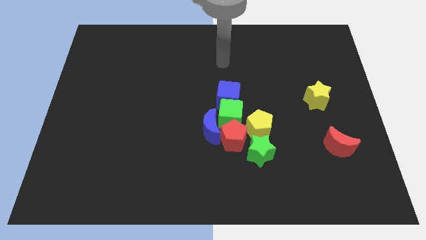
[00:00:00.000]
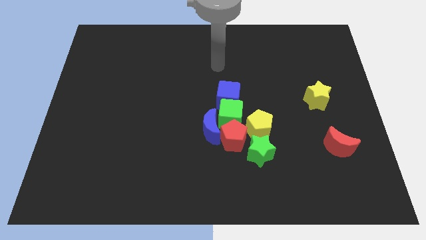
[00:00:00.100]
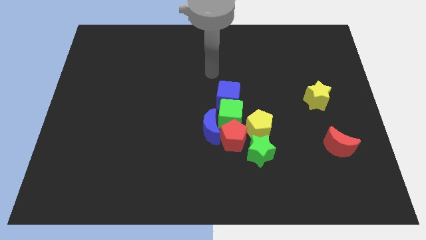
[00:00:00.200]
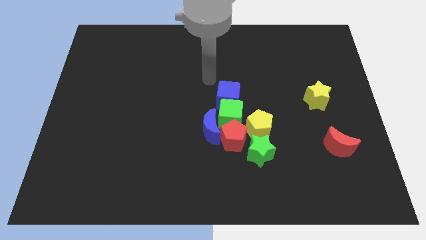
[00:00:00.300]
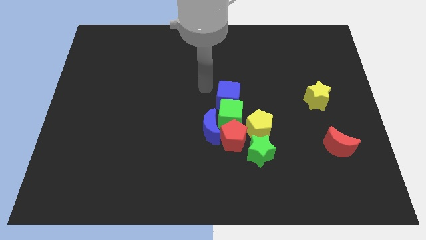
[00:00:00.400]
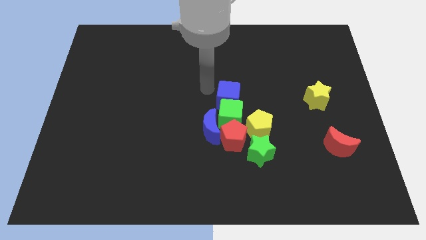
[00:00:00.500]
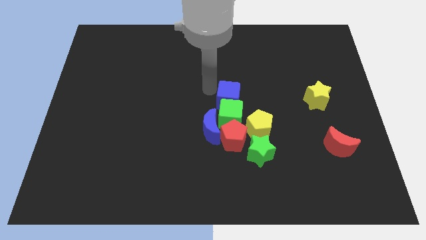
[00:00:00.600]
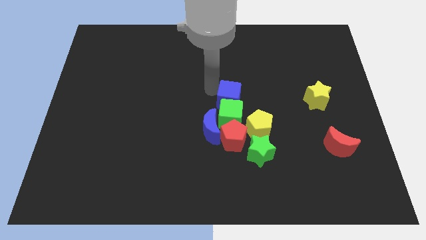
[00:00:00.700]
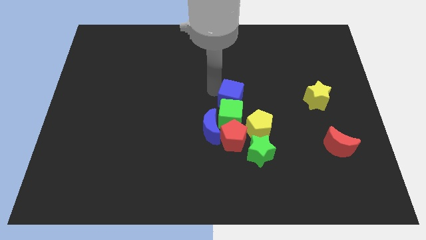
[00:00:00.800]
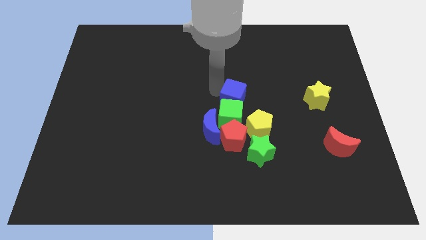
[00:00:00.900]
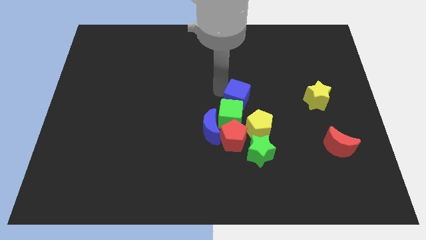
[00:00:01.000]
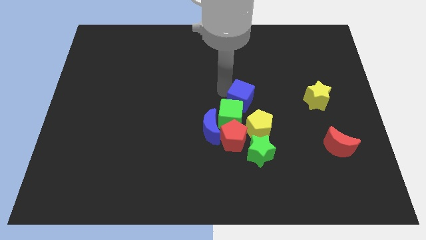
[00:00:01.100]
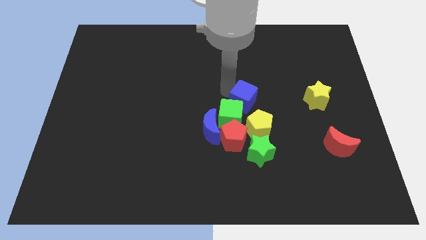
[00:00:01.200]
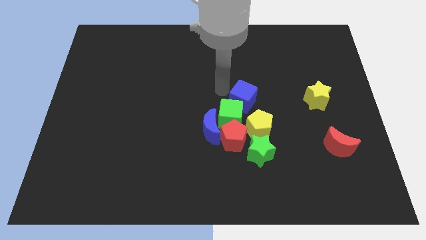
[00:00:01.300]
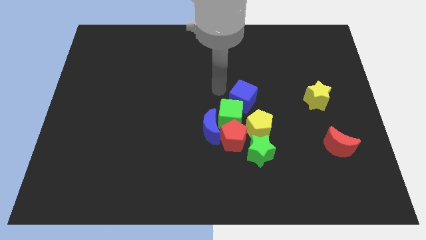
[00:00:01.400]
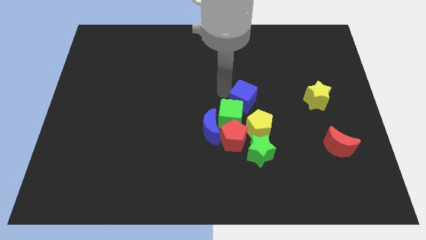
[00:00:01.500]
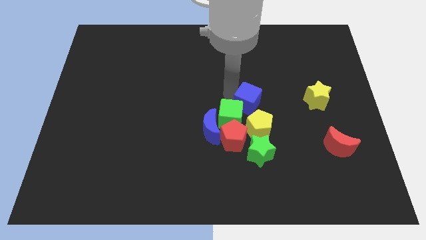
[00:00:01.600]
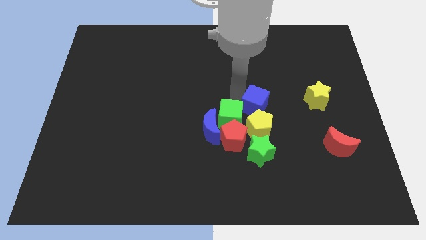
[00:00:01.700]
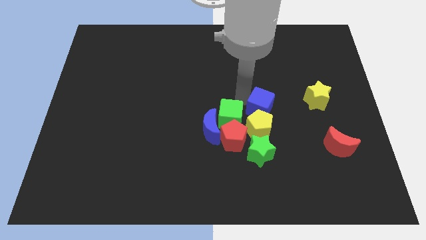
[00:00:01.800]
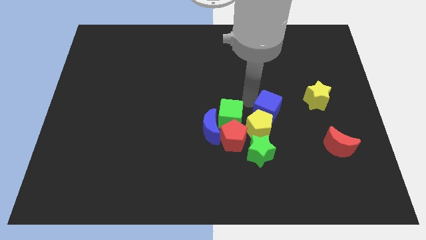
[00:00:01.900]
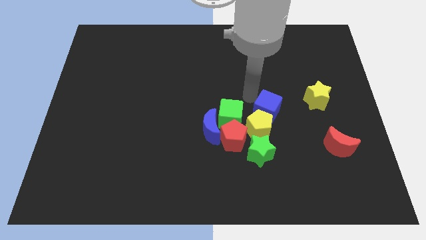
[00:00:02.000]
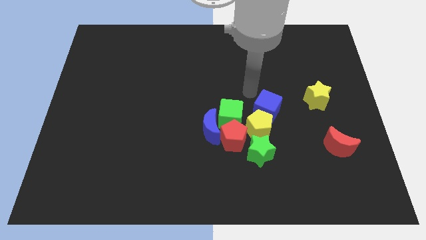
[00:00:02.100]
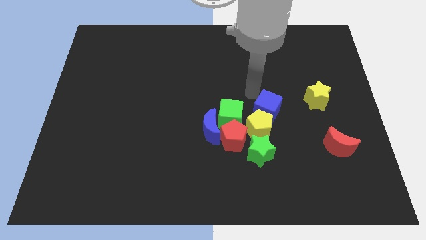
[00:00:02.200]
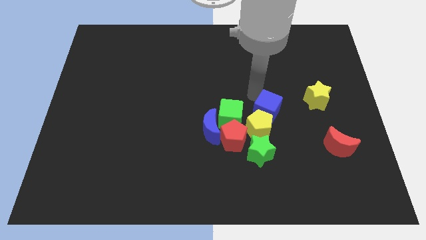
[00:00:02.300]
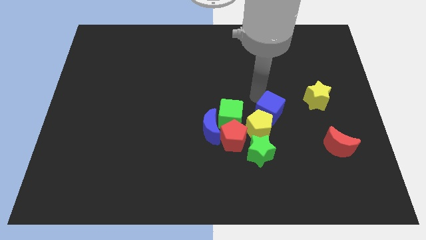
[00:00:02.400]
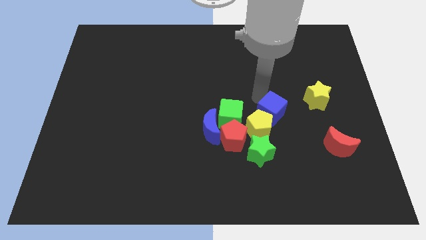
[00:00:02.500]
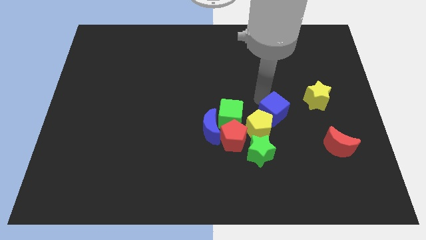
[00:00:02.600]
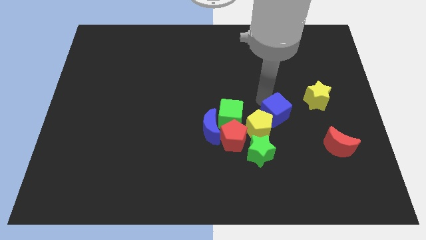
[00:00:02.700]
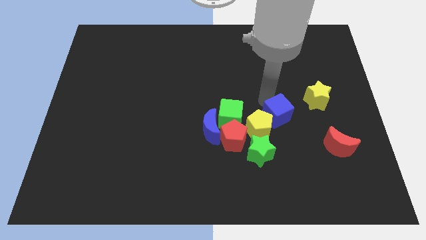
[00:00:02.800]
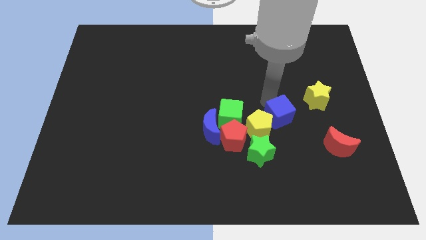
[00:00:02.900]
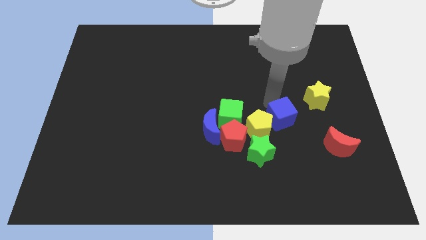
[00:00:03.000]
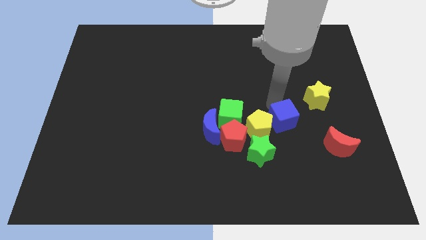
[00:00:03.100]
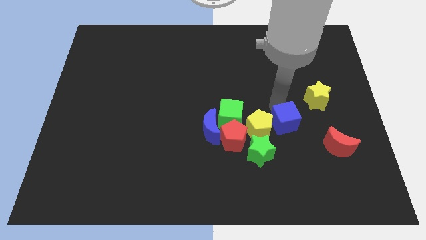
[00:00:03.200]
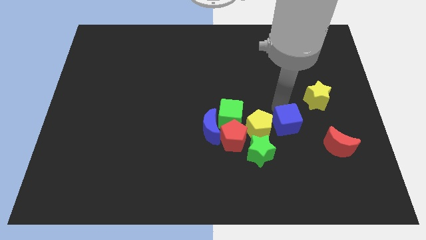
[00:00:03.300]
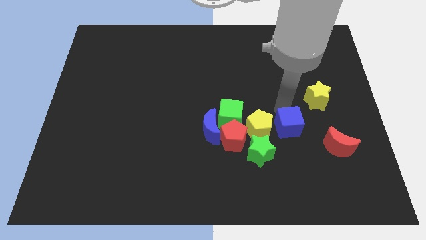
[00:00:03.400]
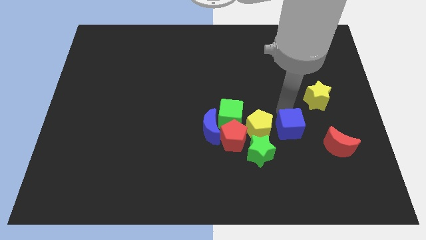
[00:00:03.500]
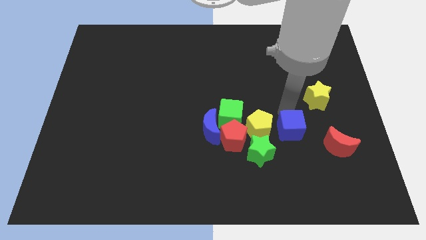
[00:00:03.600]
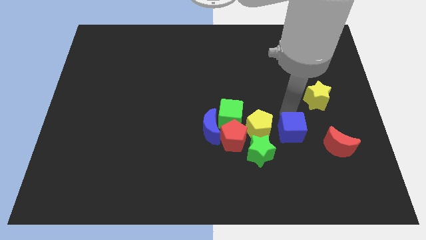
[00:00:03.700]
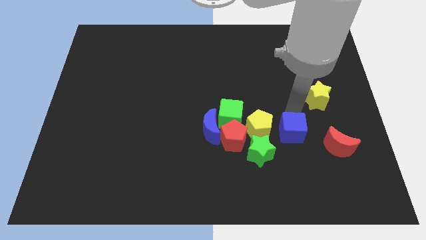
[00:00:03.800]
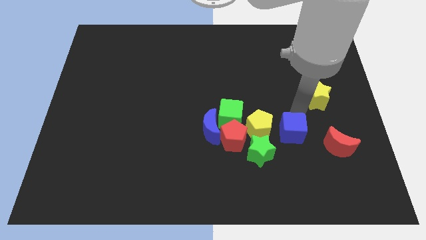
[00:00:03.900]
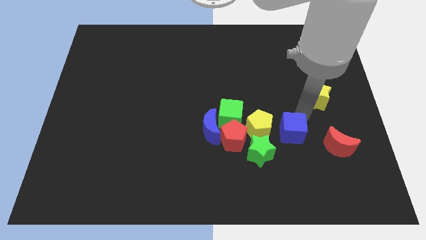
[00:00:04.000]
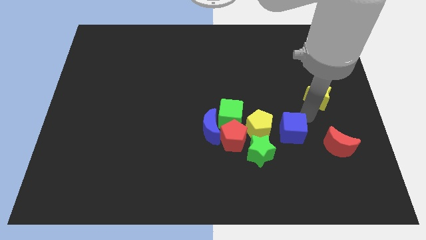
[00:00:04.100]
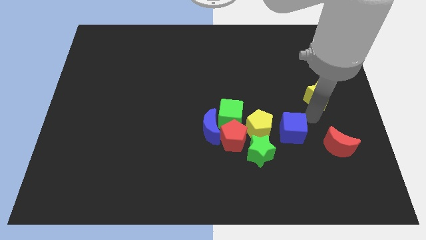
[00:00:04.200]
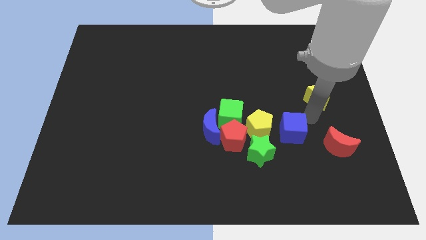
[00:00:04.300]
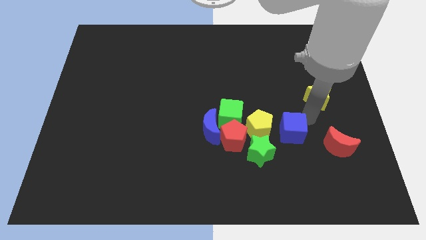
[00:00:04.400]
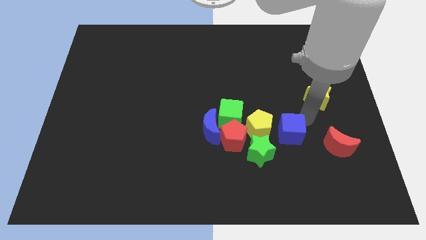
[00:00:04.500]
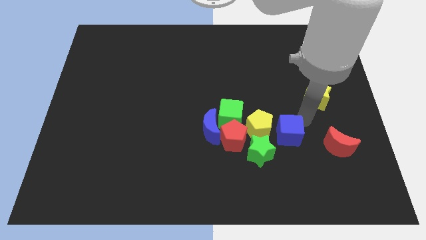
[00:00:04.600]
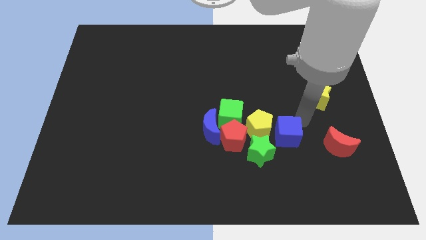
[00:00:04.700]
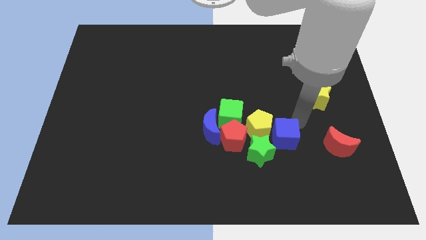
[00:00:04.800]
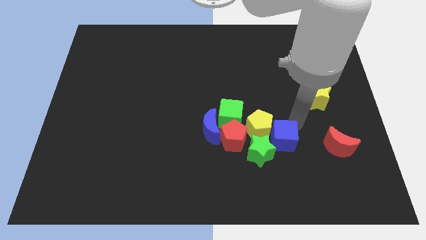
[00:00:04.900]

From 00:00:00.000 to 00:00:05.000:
move the blue cube next to the green star

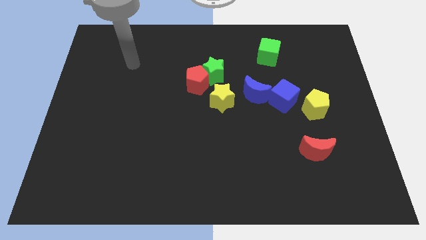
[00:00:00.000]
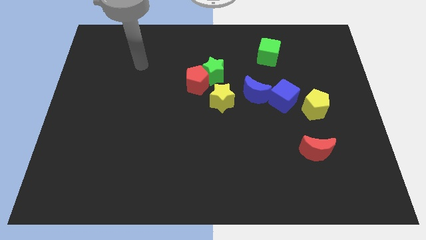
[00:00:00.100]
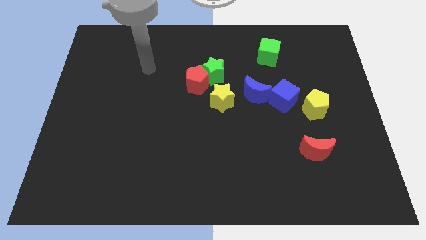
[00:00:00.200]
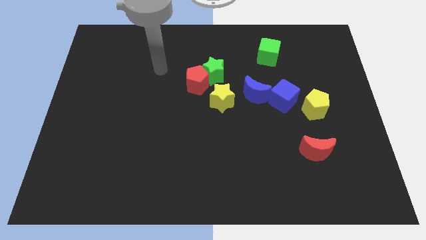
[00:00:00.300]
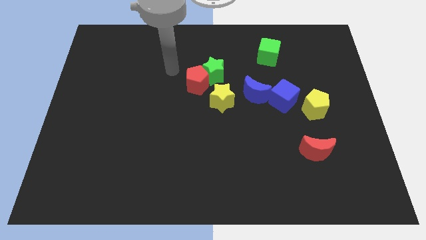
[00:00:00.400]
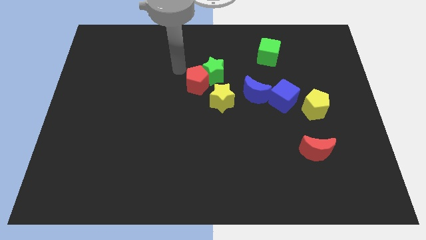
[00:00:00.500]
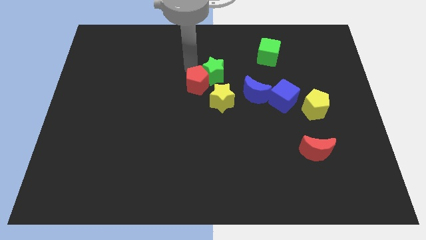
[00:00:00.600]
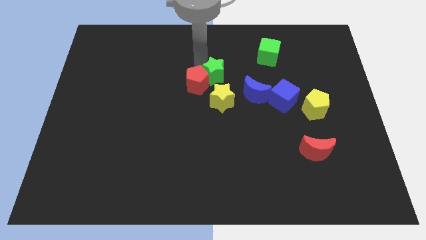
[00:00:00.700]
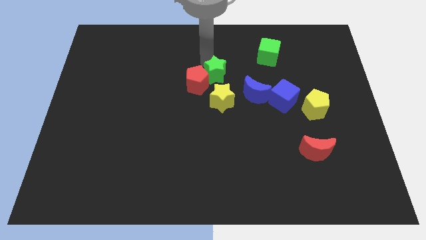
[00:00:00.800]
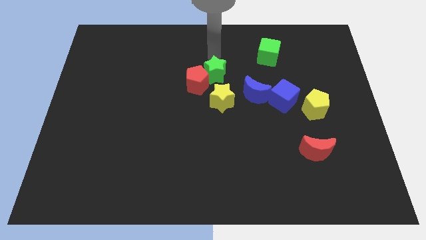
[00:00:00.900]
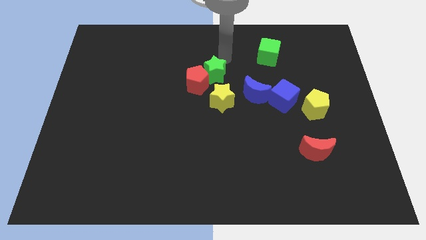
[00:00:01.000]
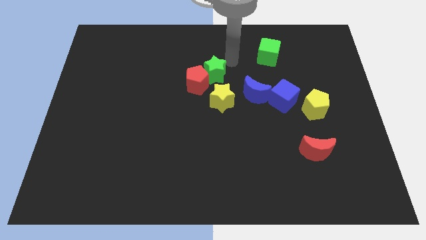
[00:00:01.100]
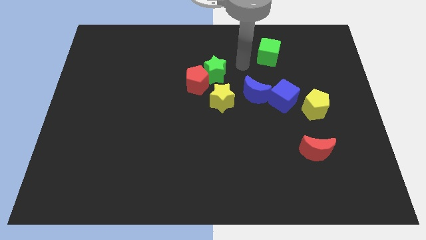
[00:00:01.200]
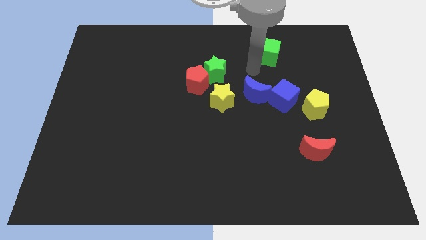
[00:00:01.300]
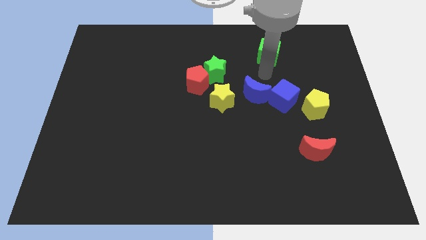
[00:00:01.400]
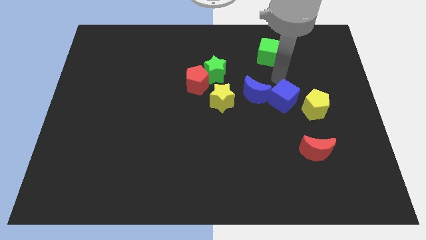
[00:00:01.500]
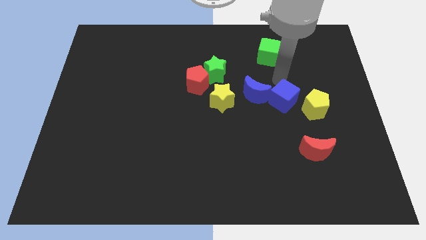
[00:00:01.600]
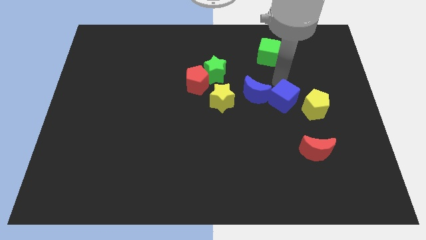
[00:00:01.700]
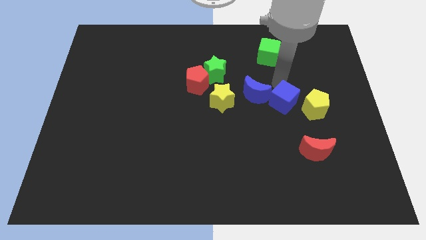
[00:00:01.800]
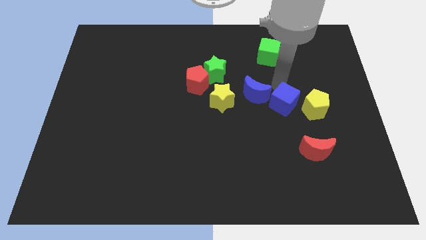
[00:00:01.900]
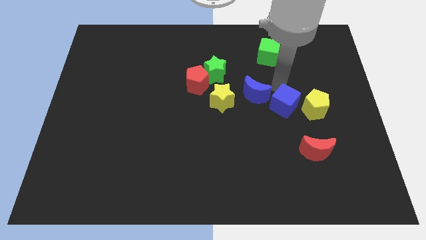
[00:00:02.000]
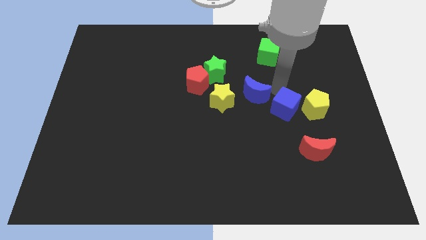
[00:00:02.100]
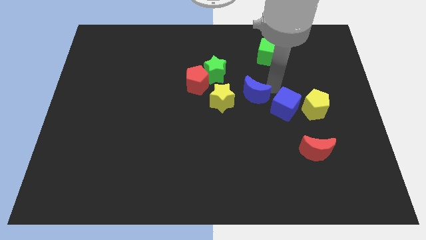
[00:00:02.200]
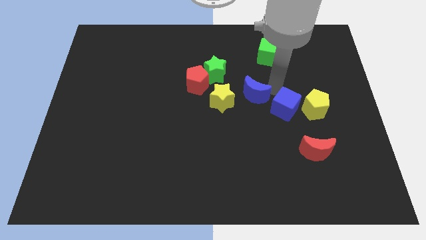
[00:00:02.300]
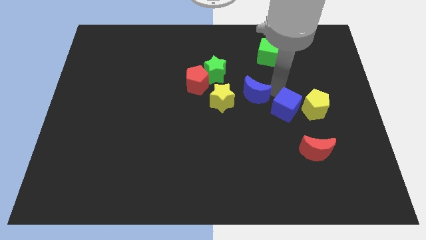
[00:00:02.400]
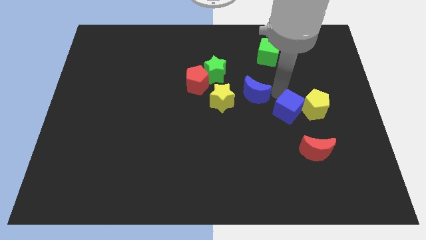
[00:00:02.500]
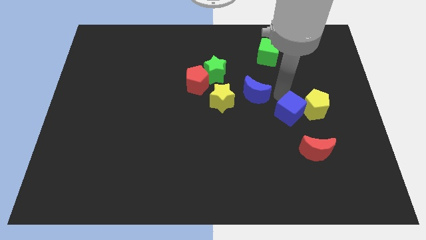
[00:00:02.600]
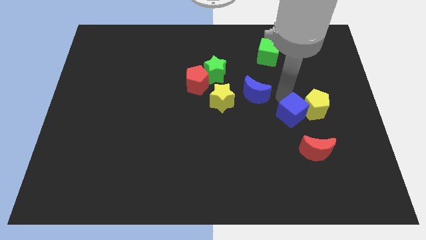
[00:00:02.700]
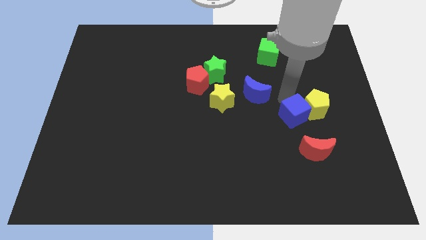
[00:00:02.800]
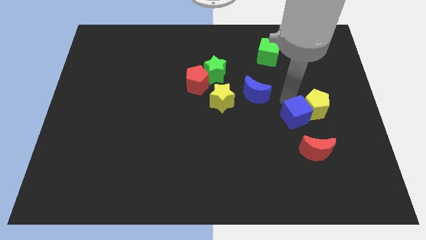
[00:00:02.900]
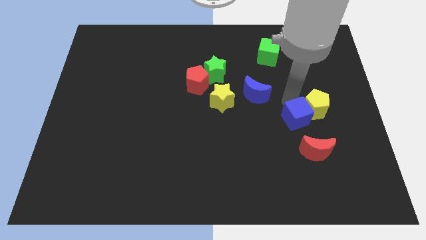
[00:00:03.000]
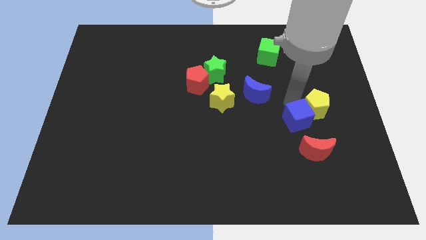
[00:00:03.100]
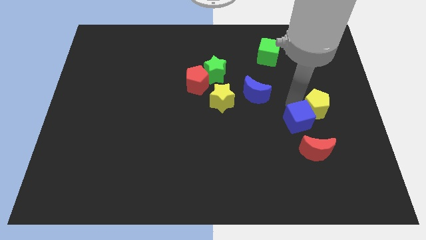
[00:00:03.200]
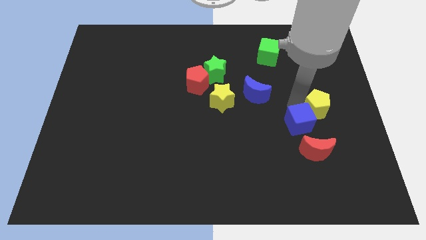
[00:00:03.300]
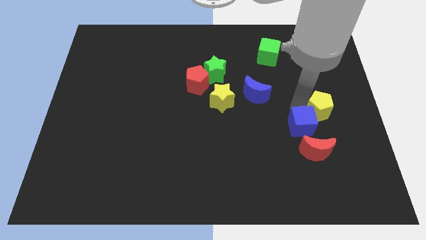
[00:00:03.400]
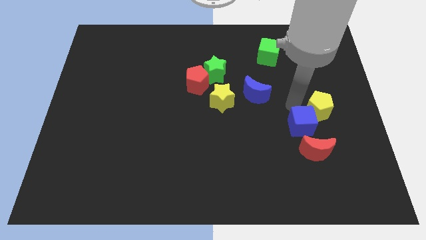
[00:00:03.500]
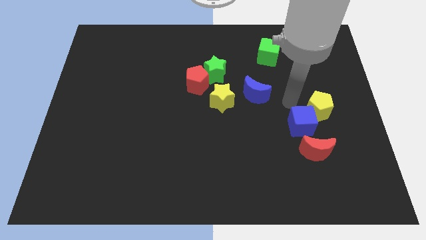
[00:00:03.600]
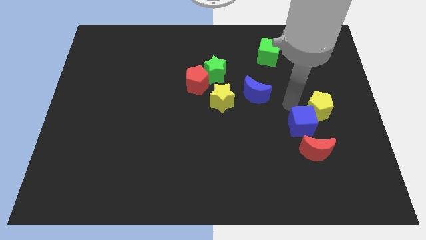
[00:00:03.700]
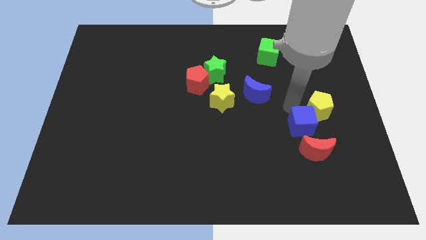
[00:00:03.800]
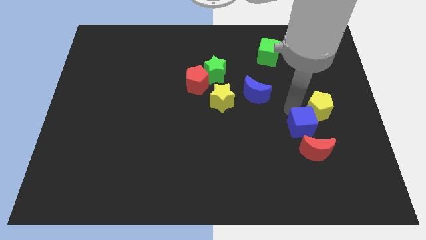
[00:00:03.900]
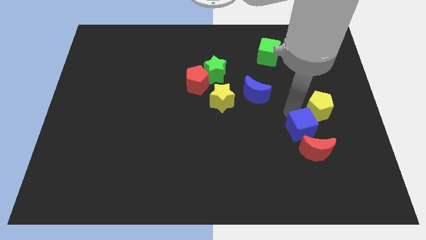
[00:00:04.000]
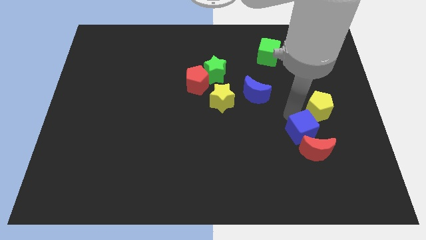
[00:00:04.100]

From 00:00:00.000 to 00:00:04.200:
push the blue cube close to the red moon
